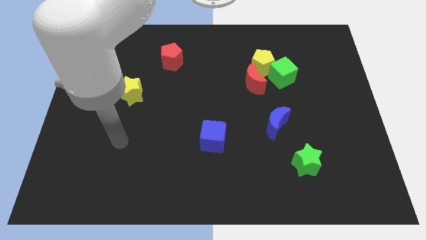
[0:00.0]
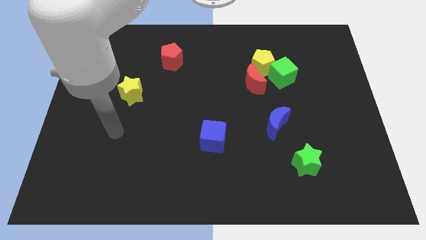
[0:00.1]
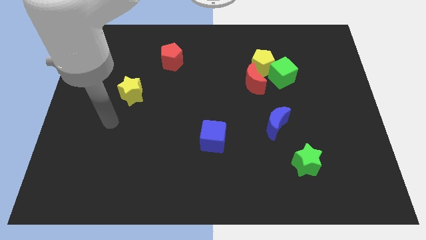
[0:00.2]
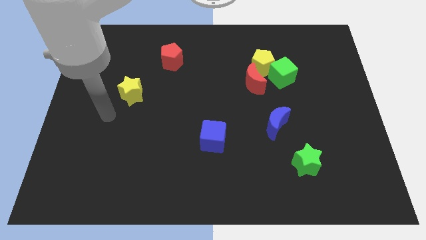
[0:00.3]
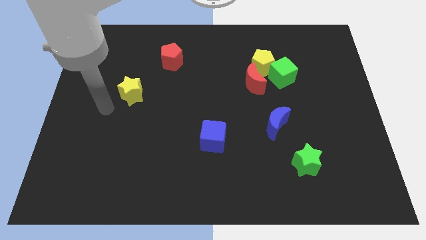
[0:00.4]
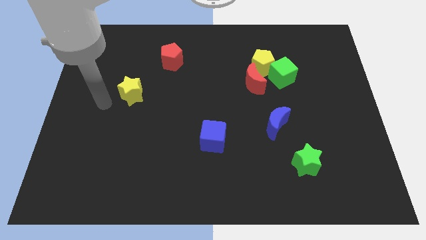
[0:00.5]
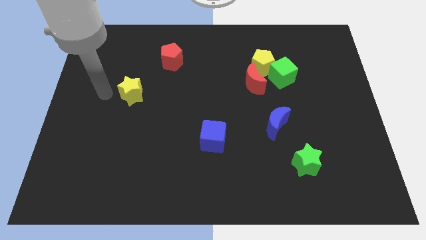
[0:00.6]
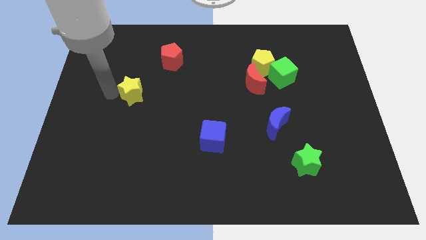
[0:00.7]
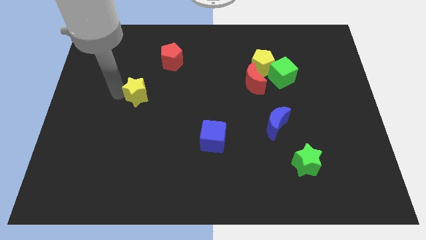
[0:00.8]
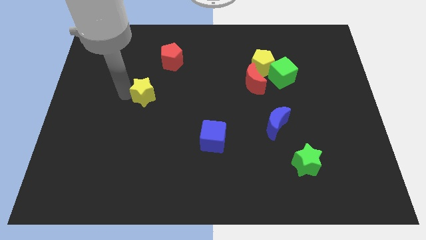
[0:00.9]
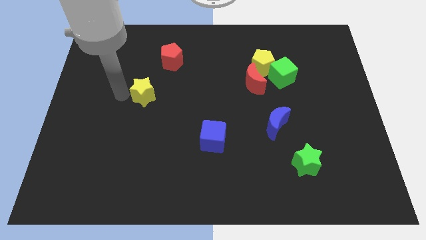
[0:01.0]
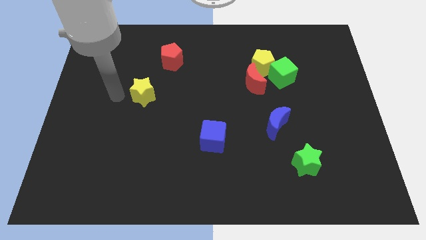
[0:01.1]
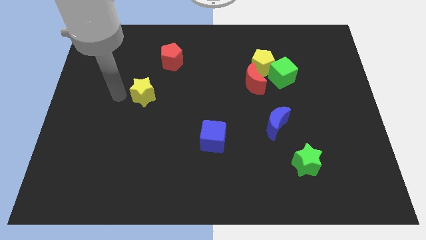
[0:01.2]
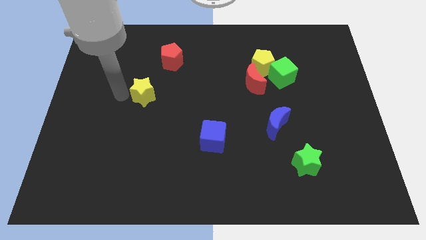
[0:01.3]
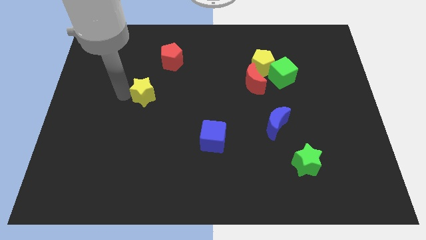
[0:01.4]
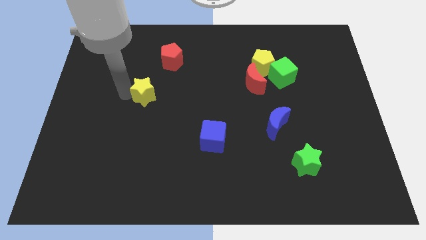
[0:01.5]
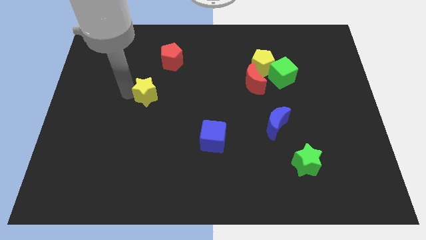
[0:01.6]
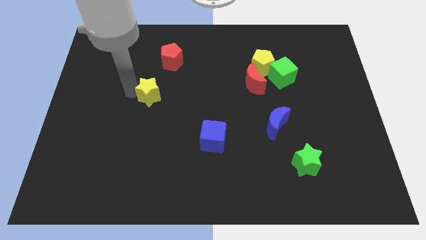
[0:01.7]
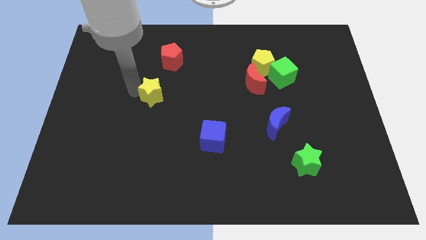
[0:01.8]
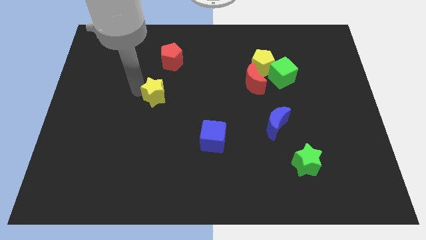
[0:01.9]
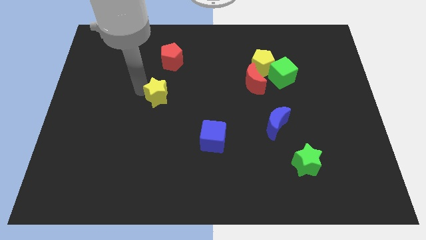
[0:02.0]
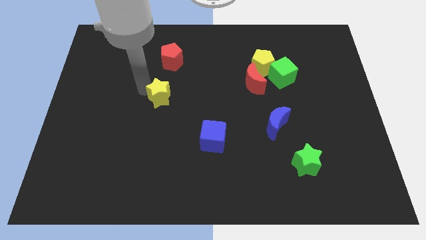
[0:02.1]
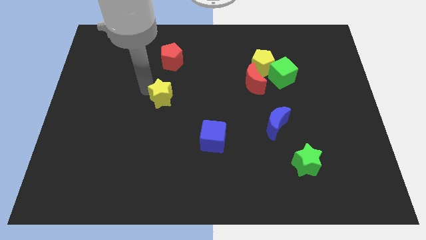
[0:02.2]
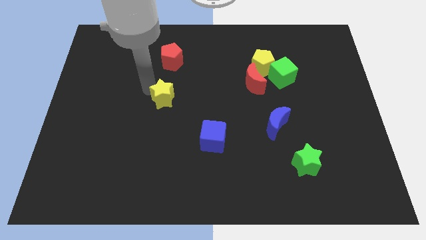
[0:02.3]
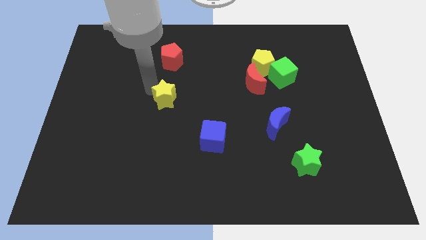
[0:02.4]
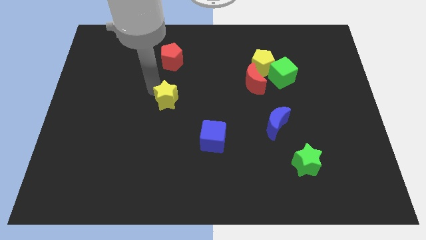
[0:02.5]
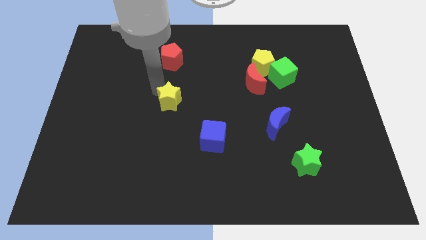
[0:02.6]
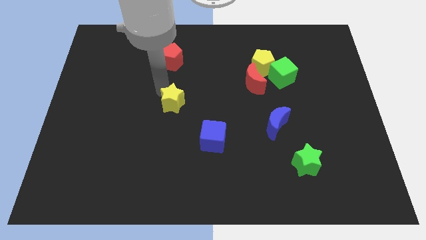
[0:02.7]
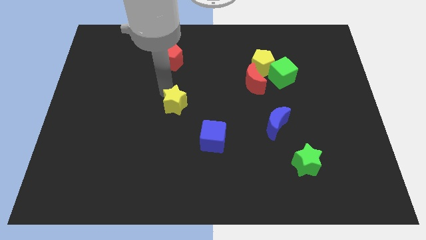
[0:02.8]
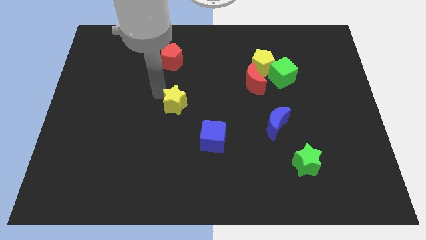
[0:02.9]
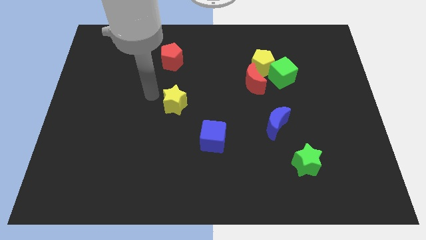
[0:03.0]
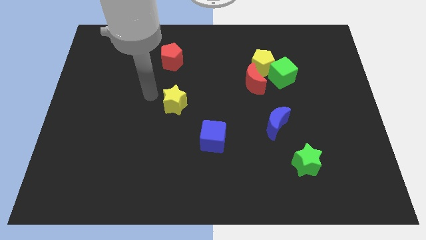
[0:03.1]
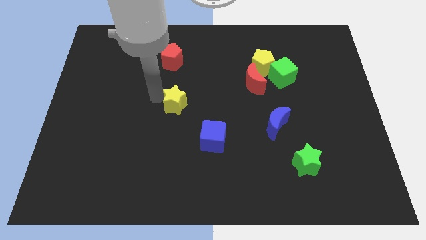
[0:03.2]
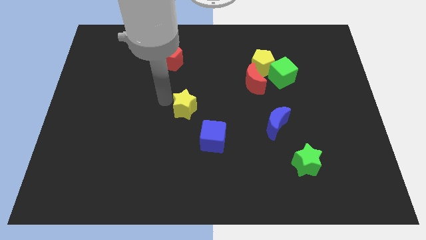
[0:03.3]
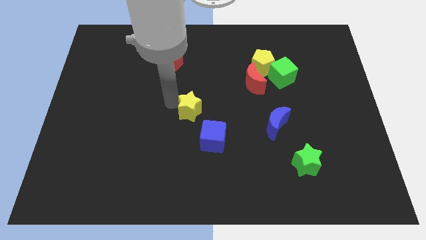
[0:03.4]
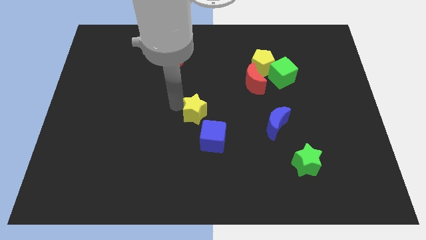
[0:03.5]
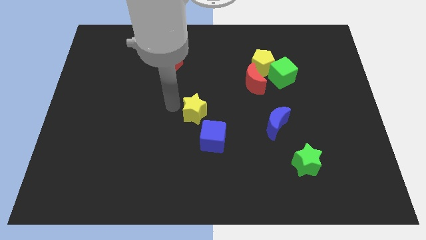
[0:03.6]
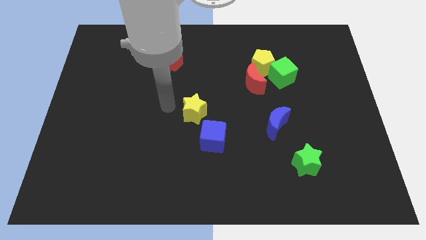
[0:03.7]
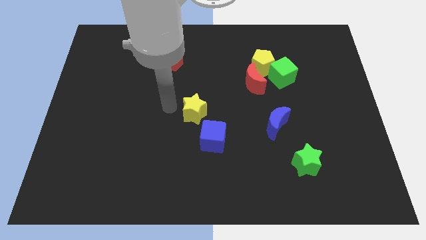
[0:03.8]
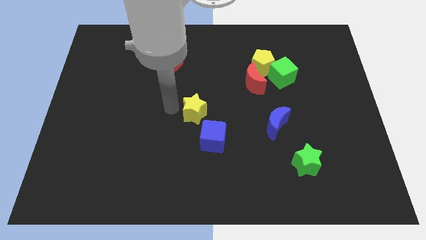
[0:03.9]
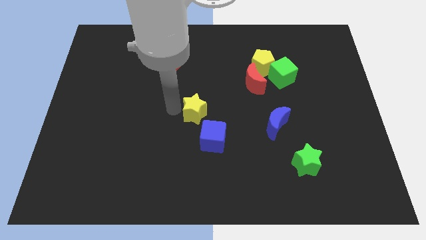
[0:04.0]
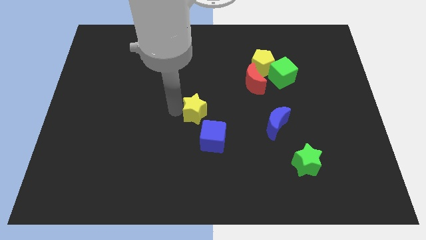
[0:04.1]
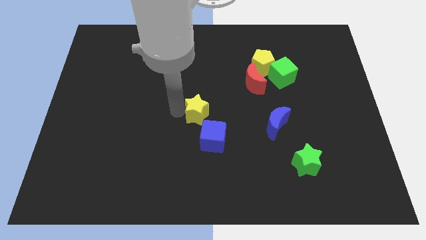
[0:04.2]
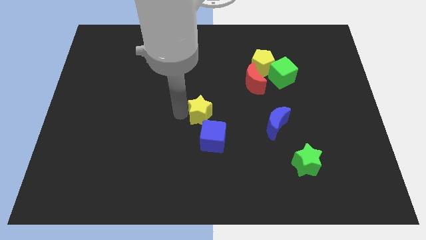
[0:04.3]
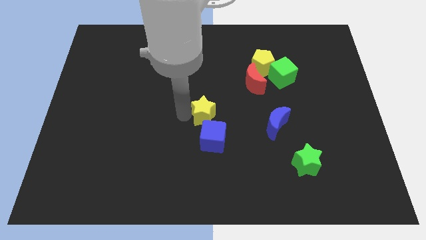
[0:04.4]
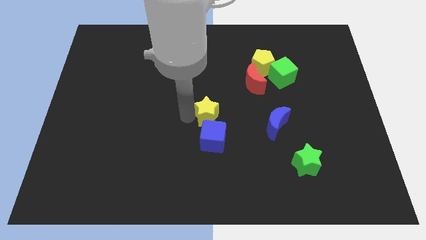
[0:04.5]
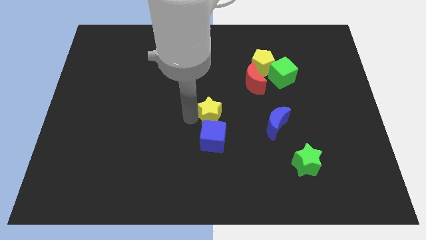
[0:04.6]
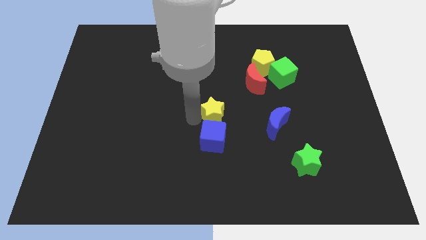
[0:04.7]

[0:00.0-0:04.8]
slide the yellow star diagonally up and to the right of the blue cube

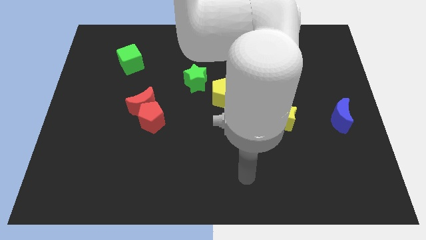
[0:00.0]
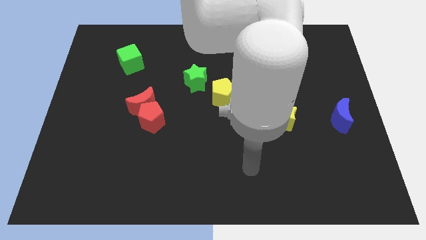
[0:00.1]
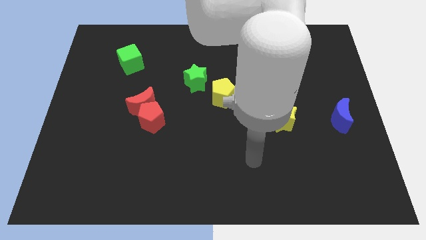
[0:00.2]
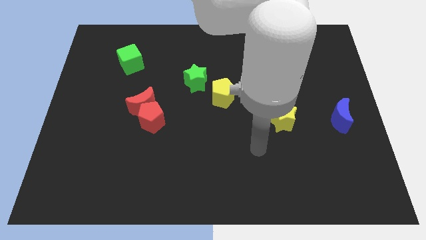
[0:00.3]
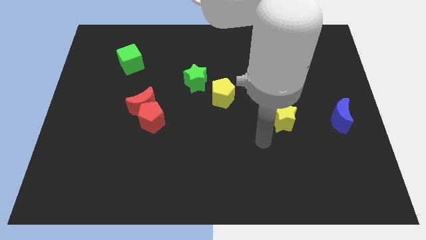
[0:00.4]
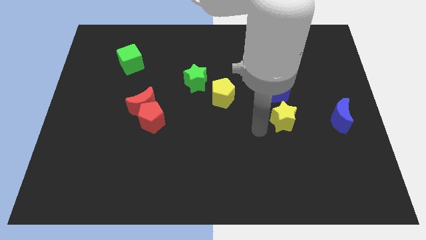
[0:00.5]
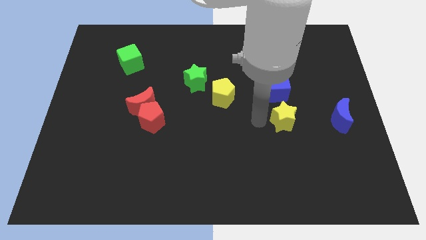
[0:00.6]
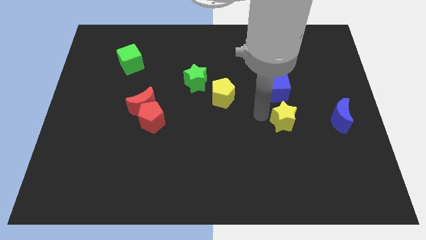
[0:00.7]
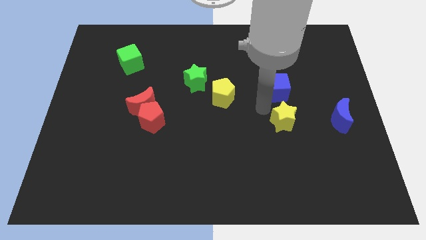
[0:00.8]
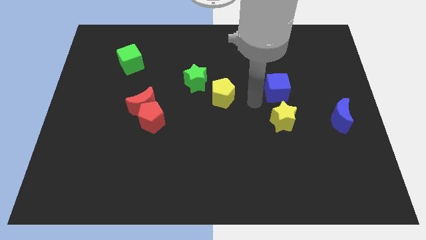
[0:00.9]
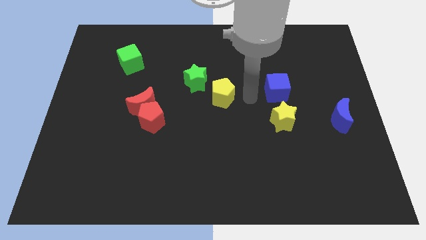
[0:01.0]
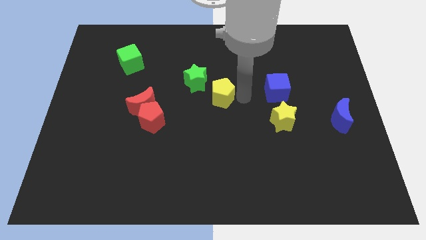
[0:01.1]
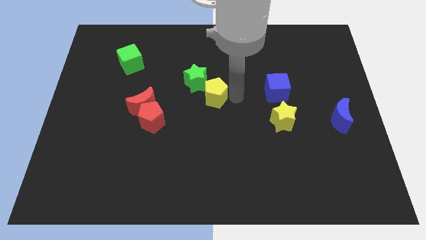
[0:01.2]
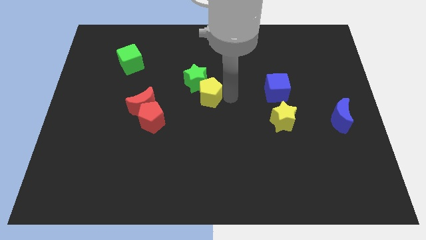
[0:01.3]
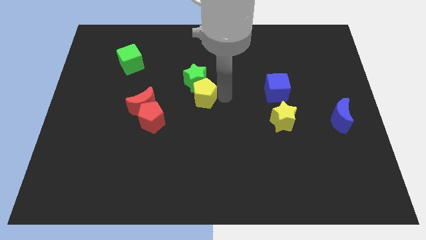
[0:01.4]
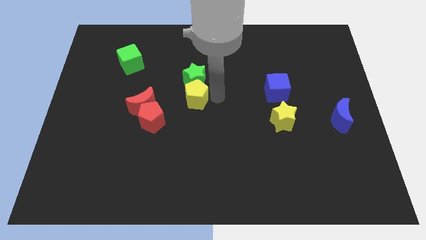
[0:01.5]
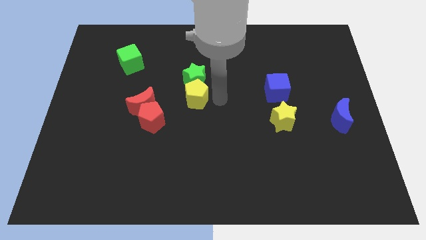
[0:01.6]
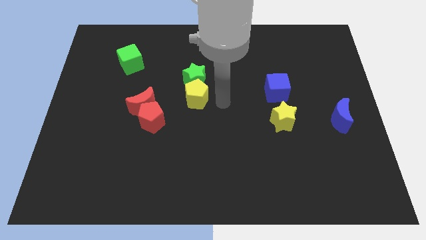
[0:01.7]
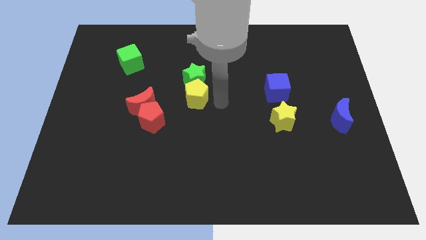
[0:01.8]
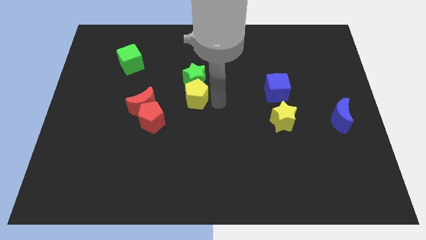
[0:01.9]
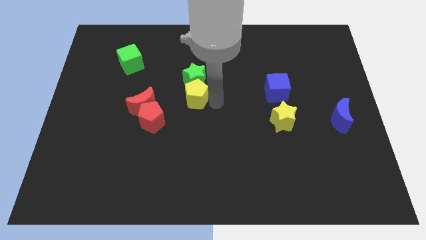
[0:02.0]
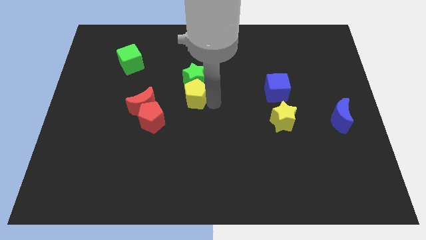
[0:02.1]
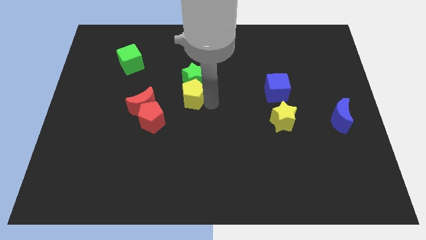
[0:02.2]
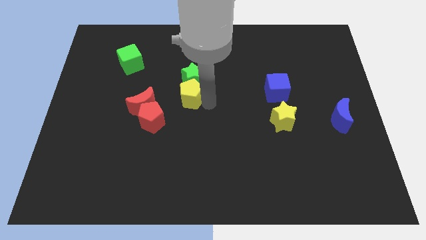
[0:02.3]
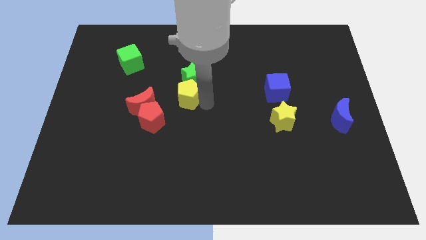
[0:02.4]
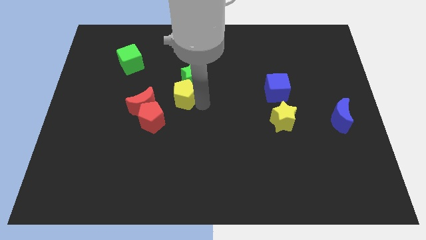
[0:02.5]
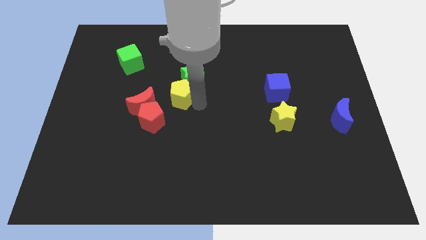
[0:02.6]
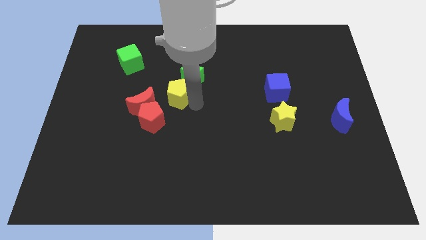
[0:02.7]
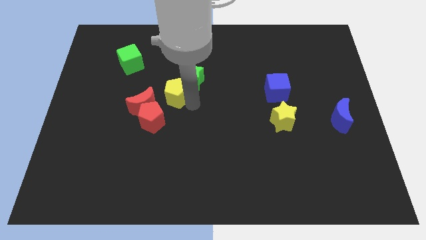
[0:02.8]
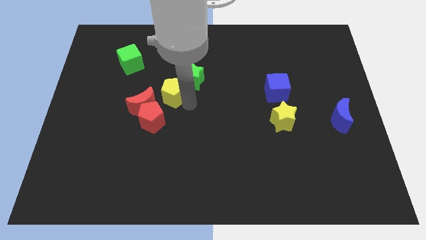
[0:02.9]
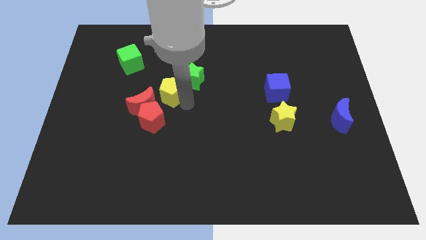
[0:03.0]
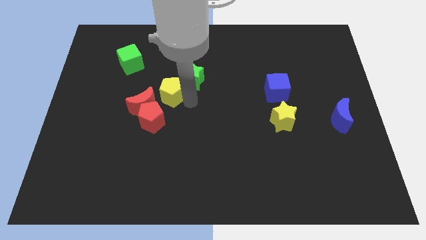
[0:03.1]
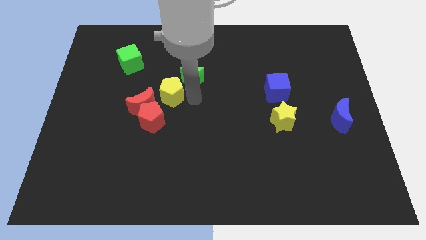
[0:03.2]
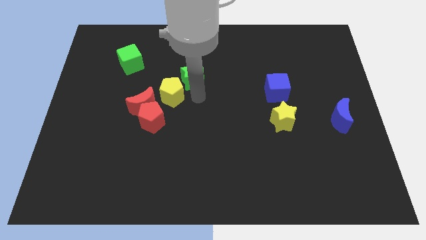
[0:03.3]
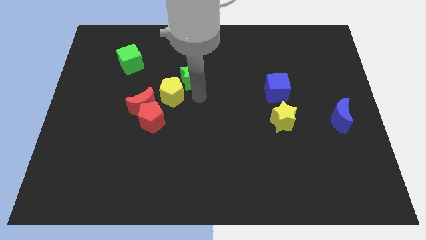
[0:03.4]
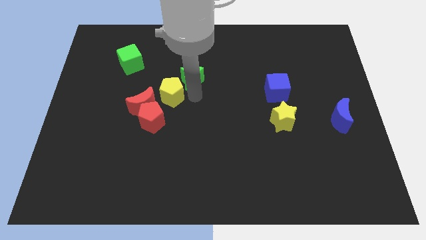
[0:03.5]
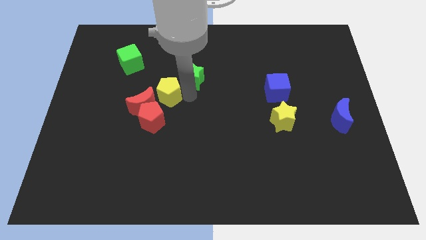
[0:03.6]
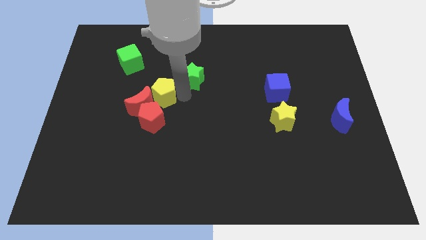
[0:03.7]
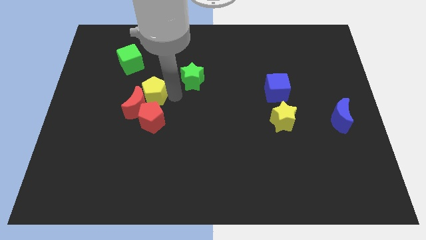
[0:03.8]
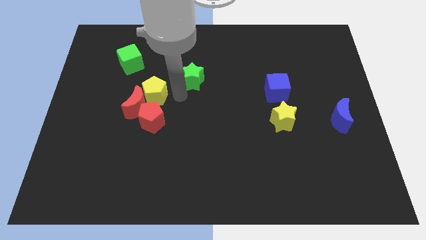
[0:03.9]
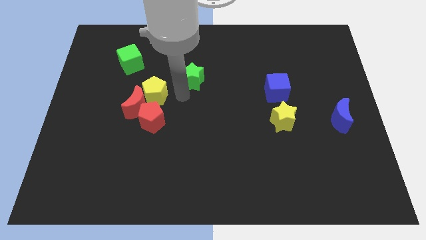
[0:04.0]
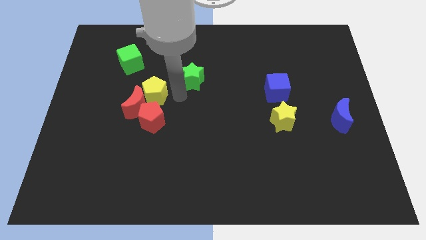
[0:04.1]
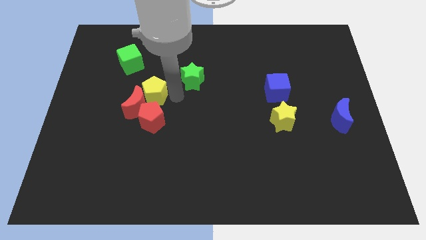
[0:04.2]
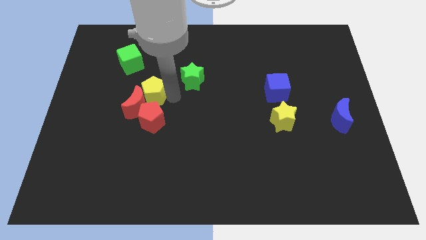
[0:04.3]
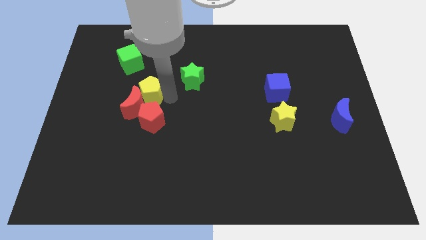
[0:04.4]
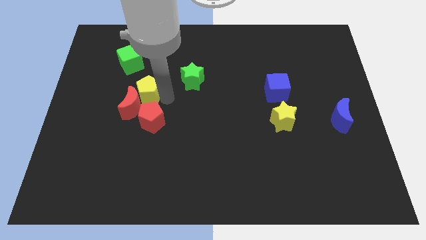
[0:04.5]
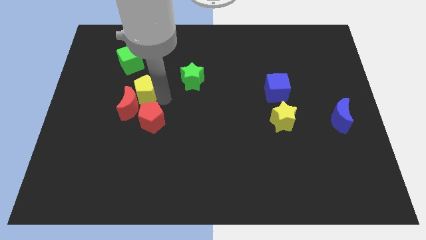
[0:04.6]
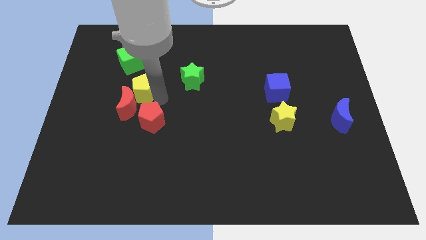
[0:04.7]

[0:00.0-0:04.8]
push the yellow pentagon to the bottom side of the green cube
